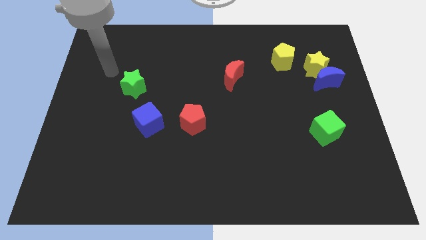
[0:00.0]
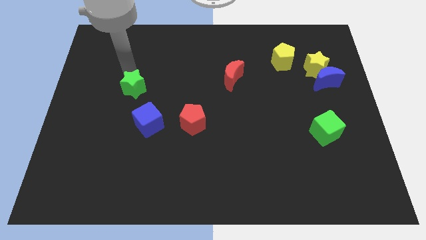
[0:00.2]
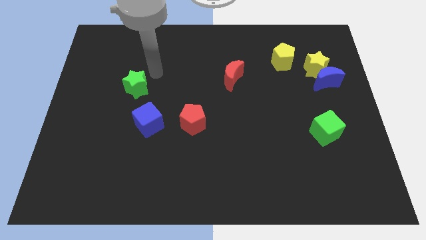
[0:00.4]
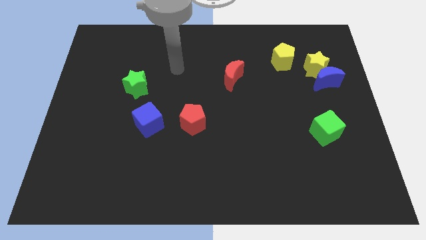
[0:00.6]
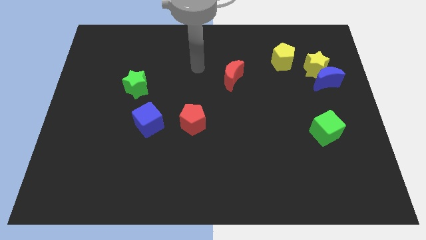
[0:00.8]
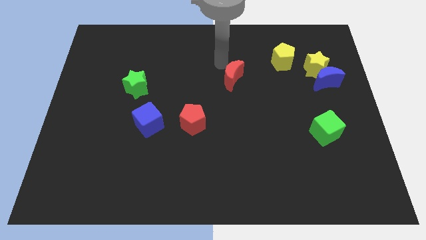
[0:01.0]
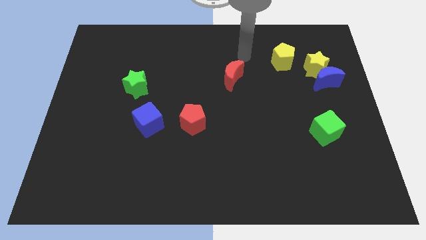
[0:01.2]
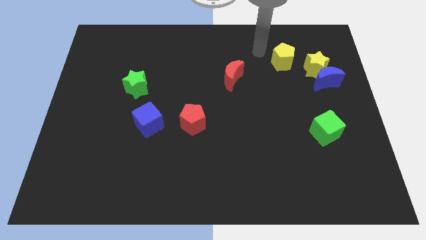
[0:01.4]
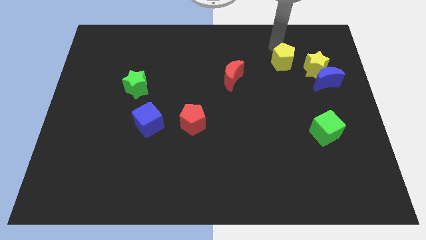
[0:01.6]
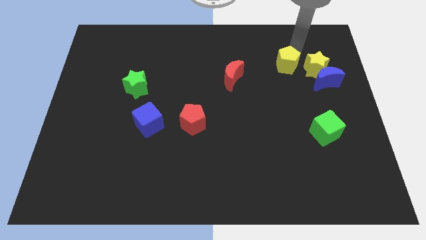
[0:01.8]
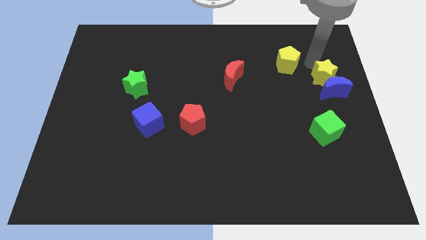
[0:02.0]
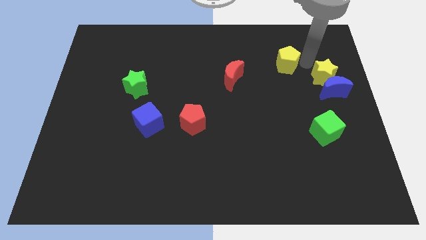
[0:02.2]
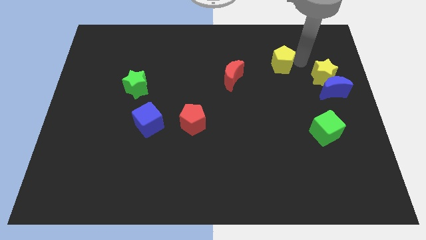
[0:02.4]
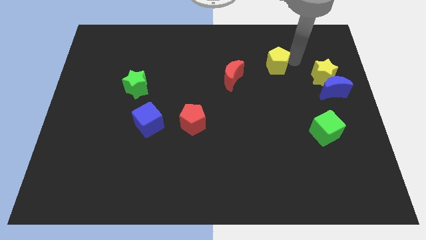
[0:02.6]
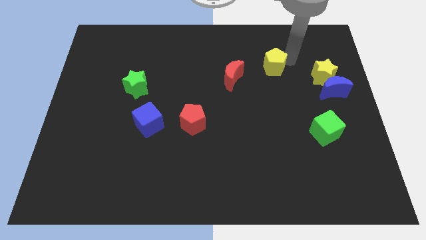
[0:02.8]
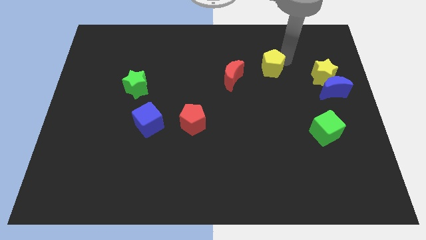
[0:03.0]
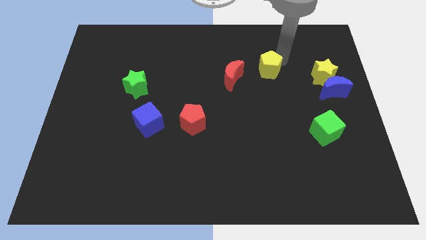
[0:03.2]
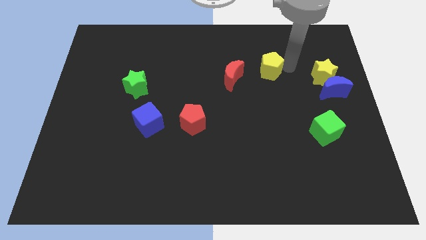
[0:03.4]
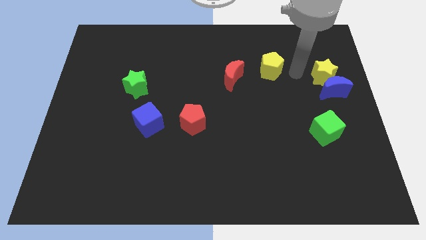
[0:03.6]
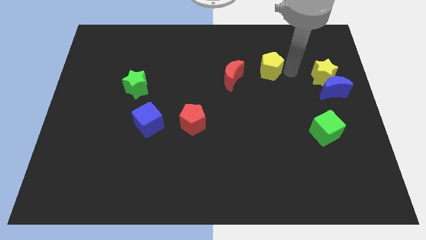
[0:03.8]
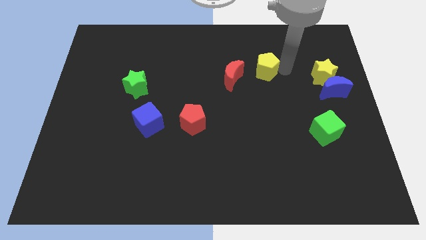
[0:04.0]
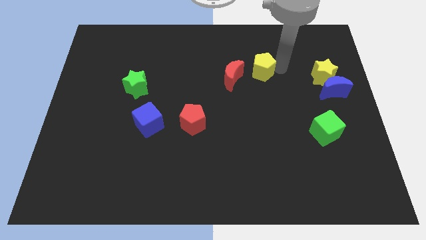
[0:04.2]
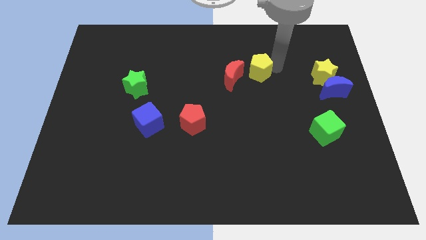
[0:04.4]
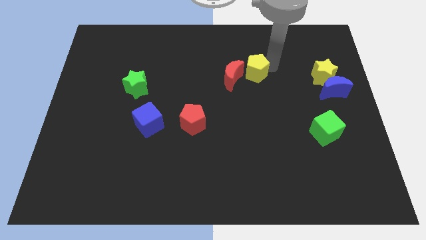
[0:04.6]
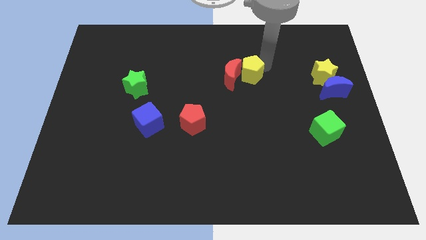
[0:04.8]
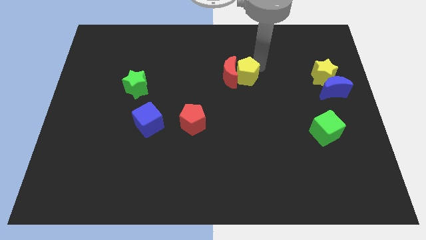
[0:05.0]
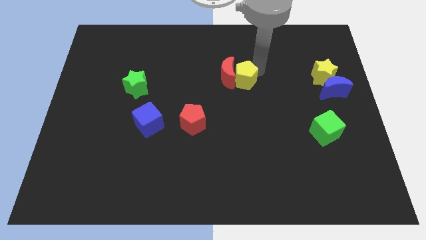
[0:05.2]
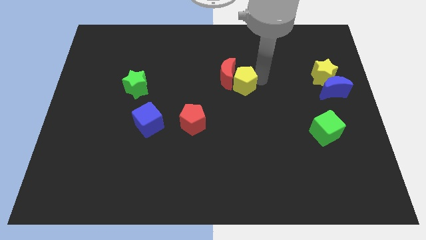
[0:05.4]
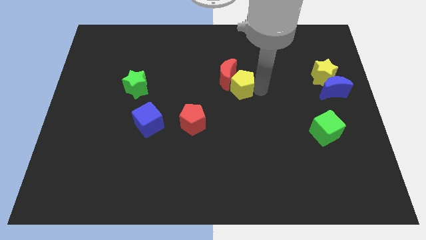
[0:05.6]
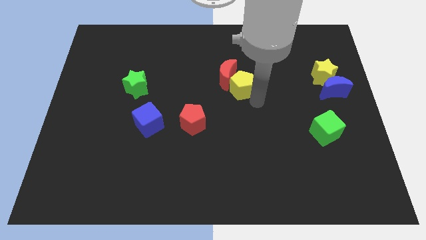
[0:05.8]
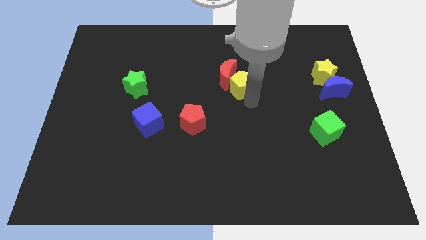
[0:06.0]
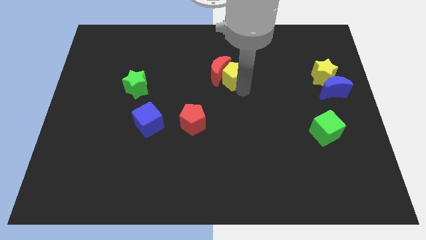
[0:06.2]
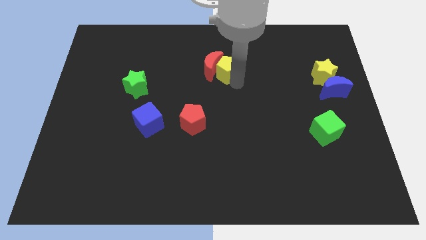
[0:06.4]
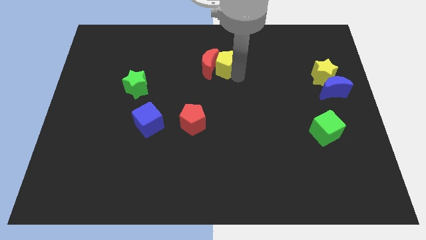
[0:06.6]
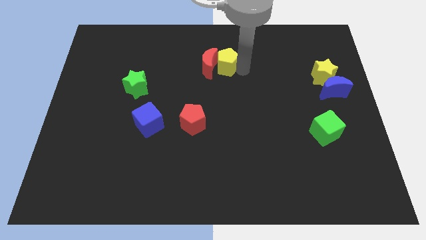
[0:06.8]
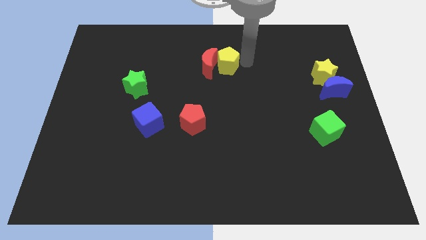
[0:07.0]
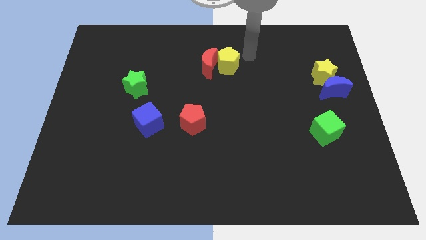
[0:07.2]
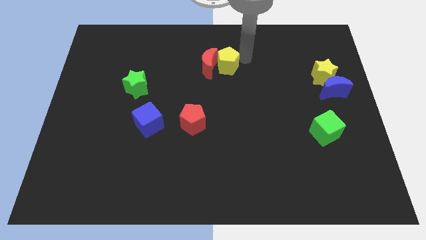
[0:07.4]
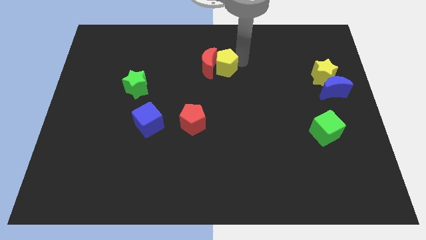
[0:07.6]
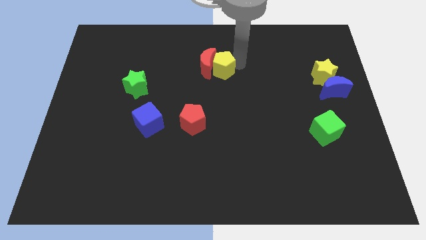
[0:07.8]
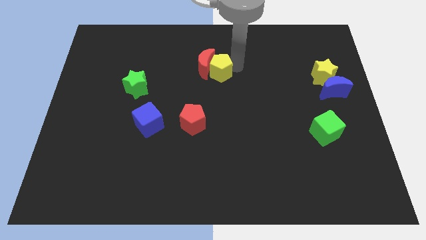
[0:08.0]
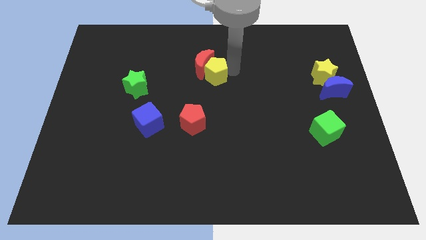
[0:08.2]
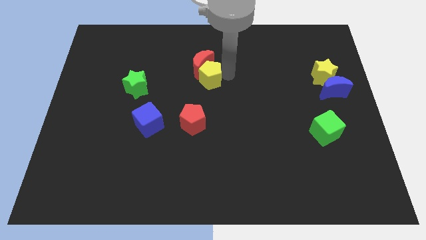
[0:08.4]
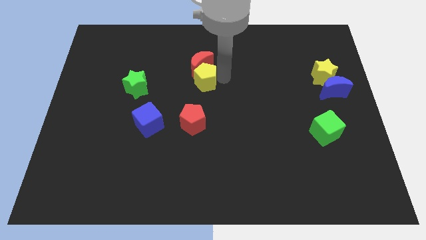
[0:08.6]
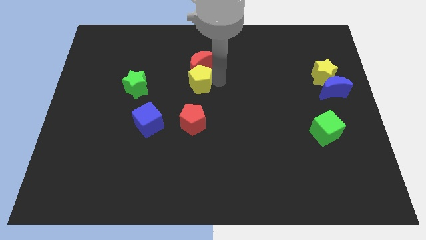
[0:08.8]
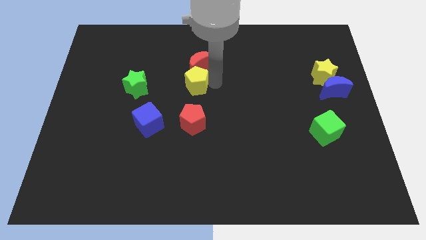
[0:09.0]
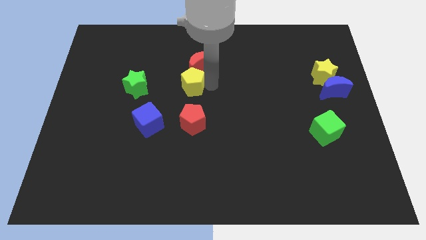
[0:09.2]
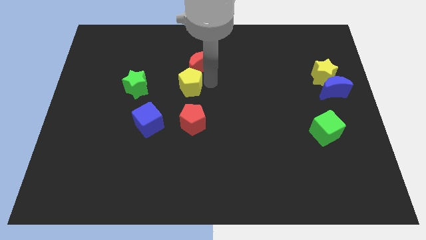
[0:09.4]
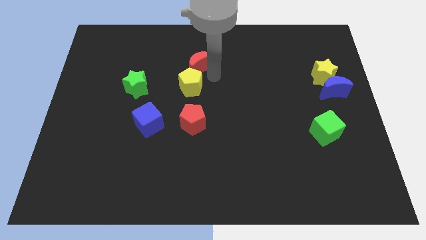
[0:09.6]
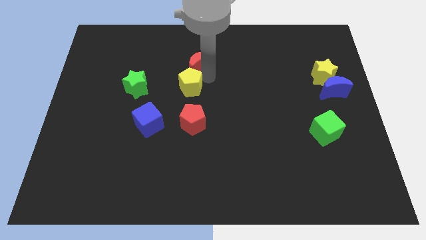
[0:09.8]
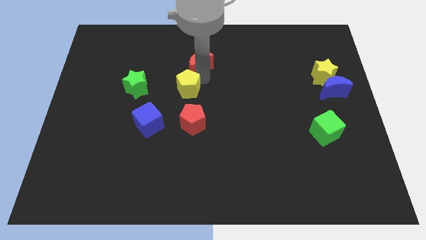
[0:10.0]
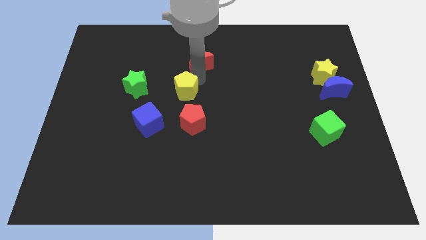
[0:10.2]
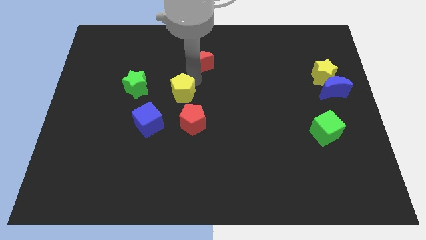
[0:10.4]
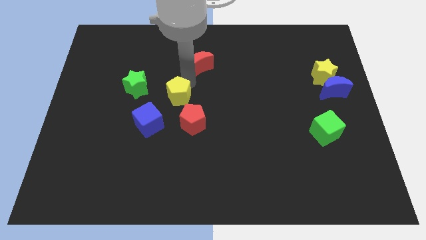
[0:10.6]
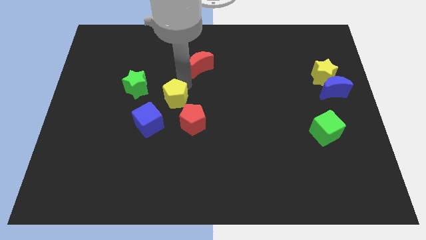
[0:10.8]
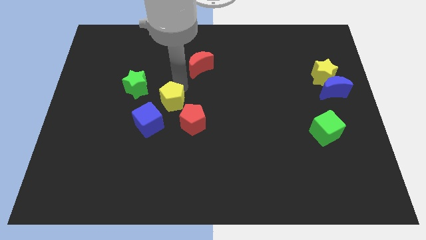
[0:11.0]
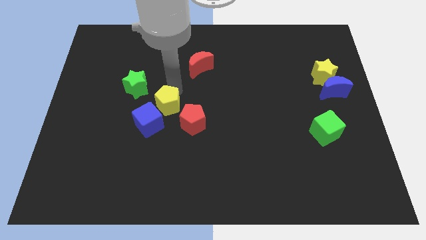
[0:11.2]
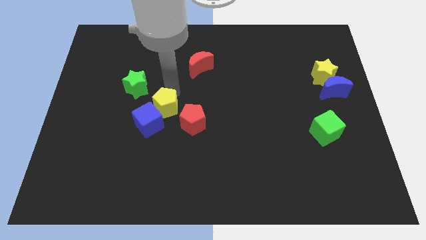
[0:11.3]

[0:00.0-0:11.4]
push the yellow pentagon towards the blue cube
